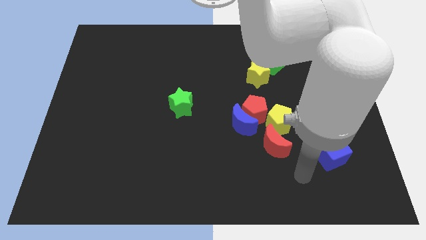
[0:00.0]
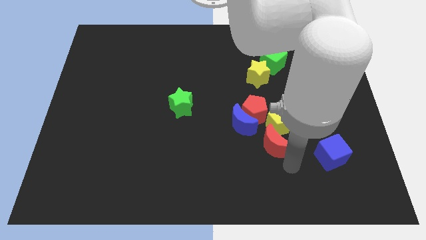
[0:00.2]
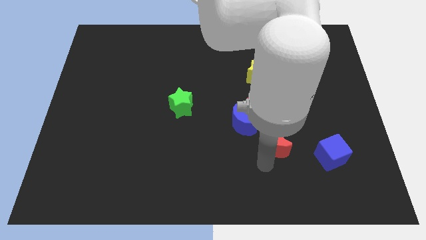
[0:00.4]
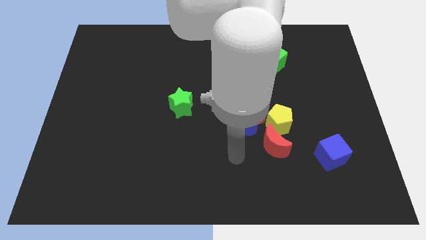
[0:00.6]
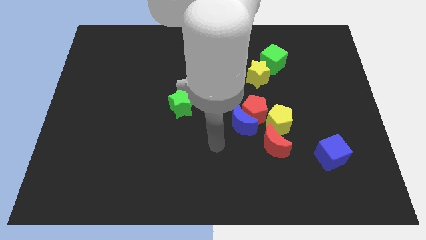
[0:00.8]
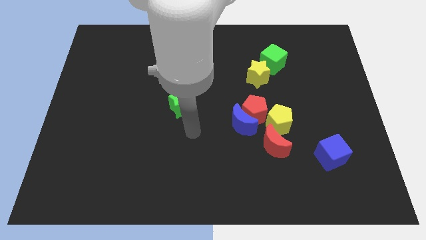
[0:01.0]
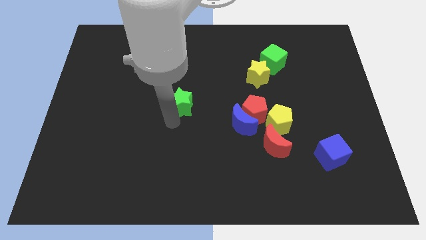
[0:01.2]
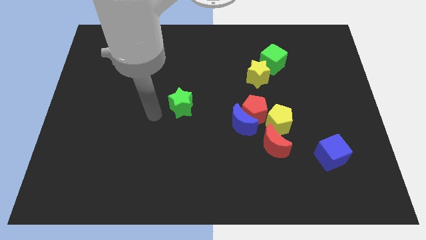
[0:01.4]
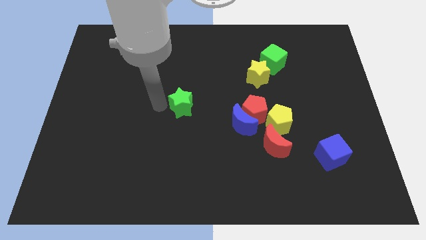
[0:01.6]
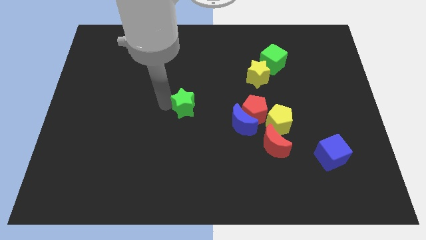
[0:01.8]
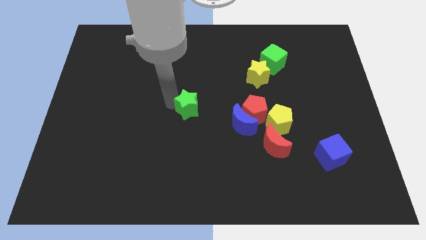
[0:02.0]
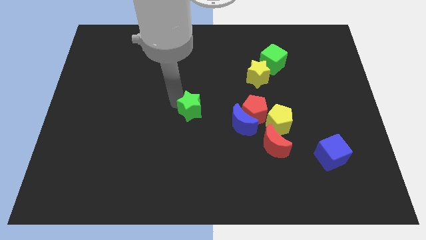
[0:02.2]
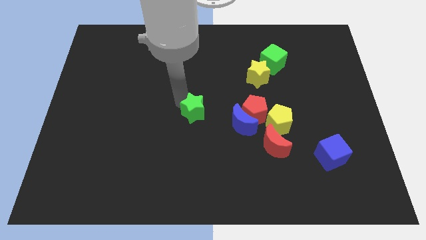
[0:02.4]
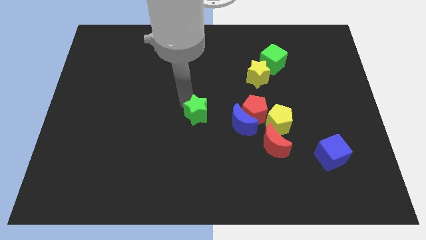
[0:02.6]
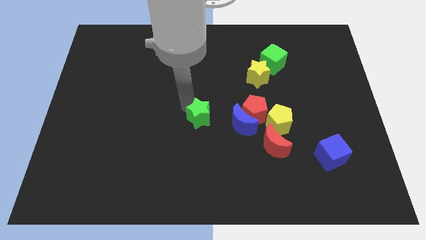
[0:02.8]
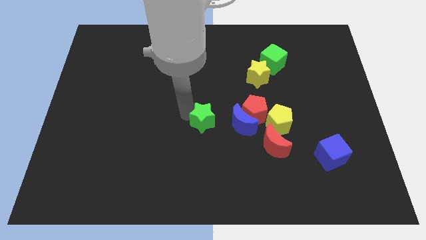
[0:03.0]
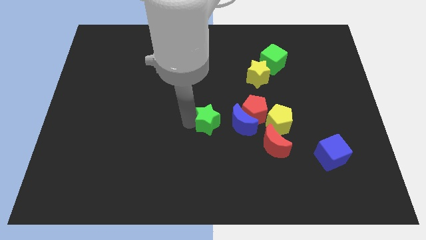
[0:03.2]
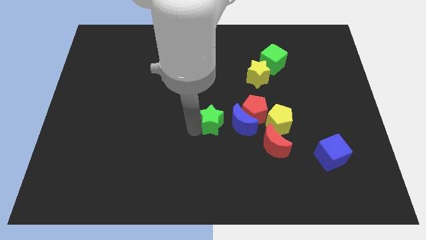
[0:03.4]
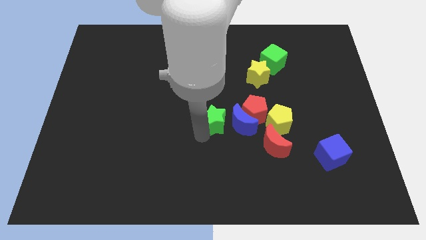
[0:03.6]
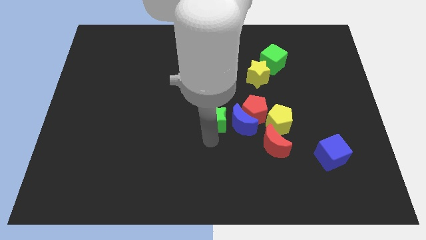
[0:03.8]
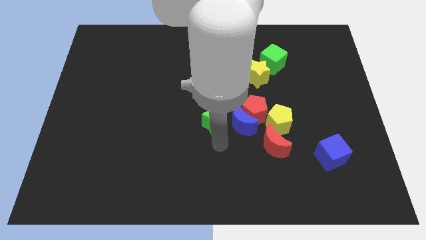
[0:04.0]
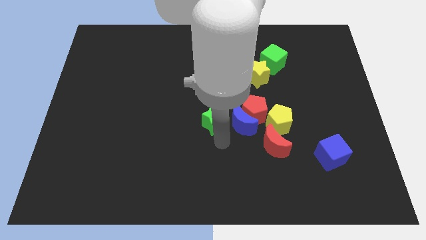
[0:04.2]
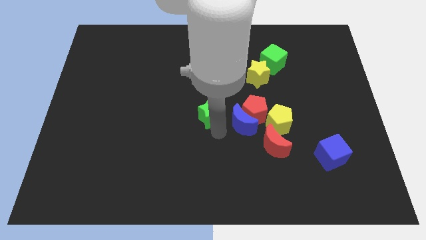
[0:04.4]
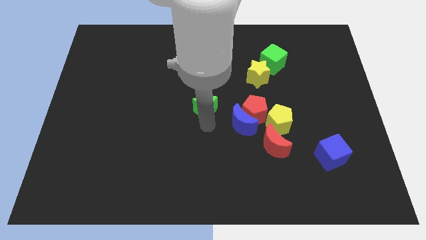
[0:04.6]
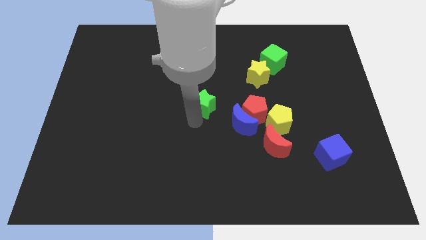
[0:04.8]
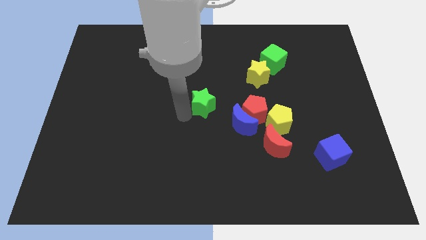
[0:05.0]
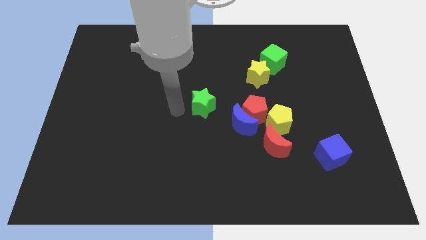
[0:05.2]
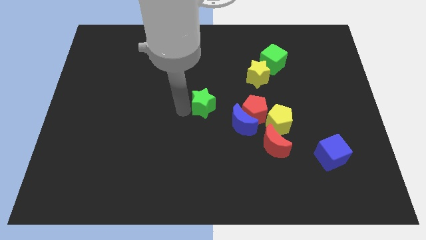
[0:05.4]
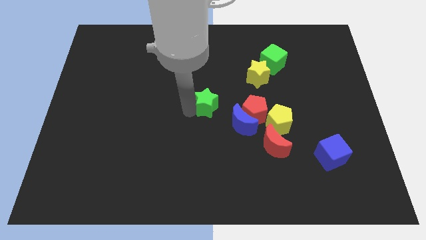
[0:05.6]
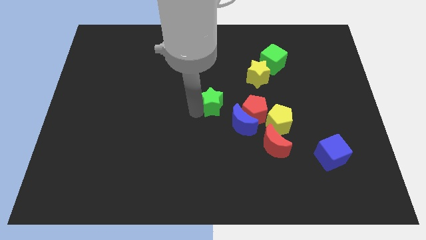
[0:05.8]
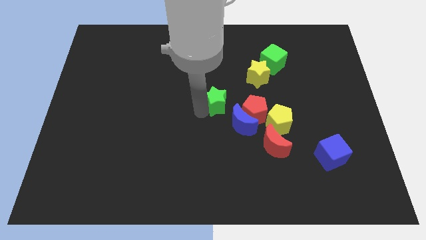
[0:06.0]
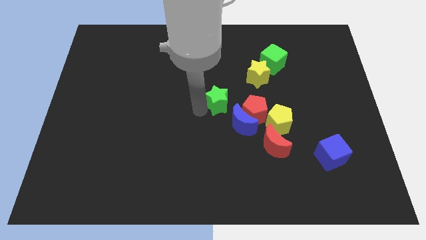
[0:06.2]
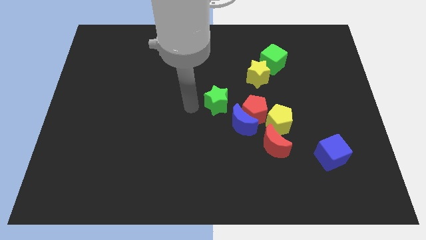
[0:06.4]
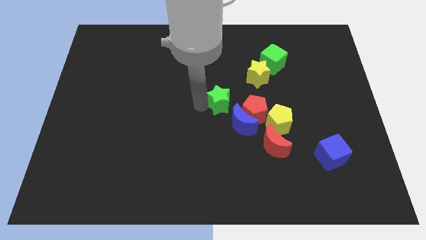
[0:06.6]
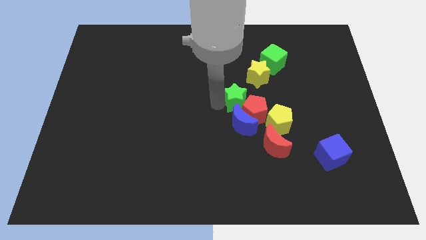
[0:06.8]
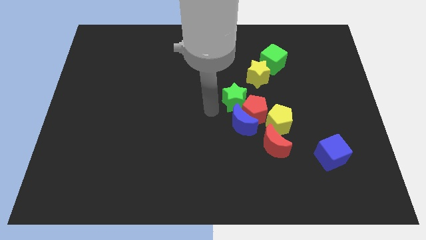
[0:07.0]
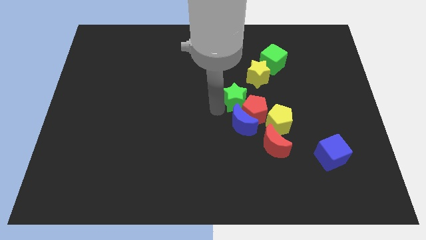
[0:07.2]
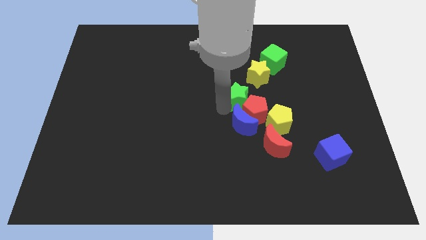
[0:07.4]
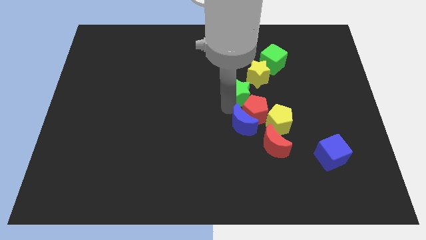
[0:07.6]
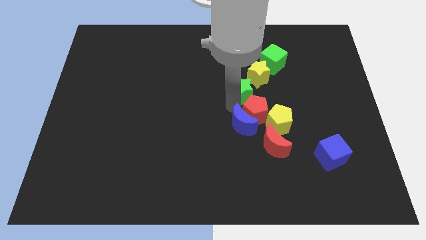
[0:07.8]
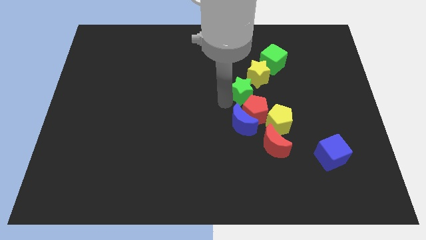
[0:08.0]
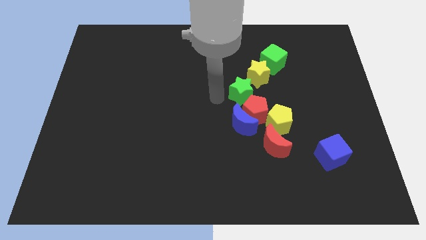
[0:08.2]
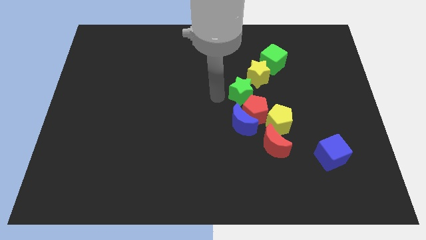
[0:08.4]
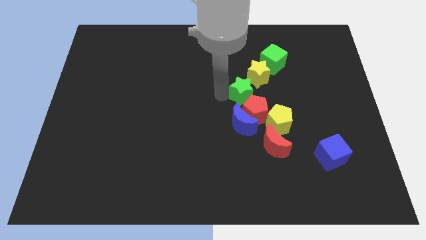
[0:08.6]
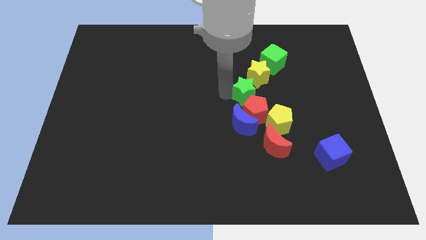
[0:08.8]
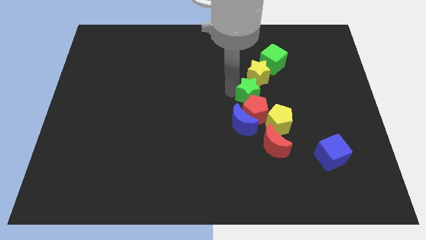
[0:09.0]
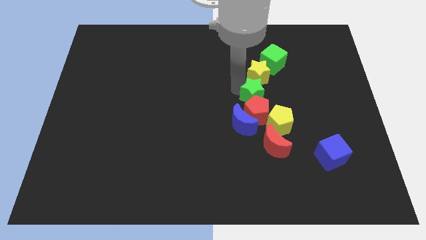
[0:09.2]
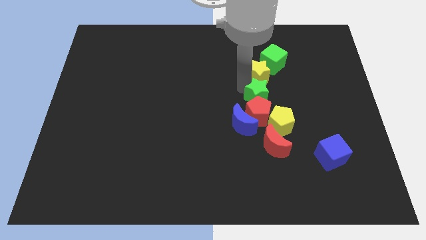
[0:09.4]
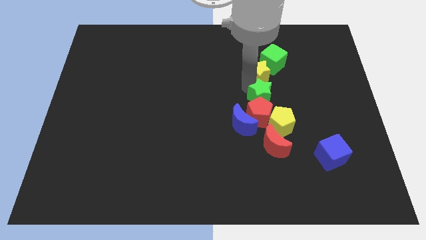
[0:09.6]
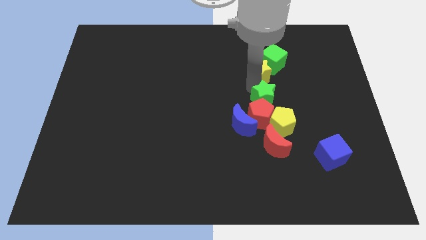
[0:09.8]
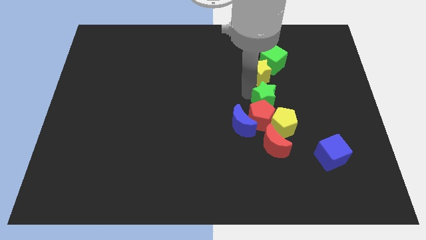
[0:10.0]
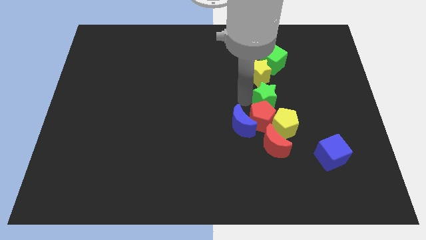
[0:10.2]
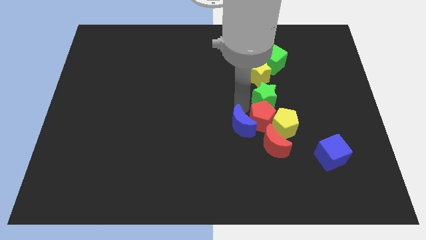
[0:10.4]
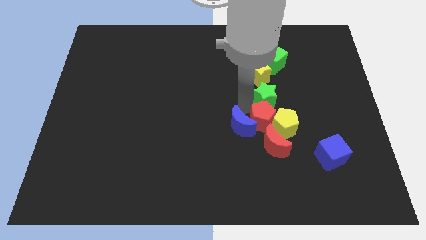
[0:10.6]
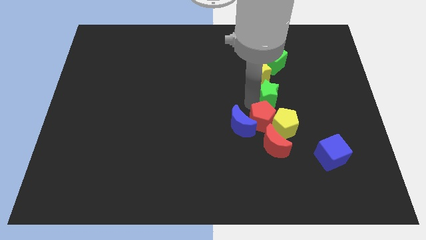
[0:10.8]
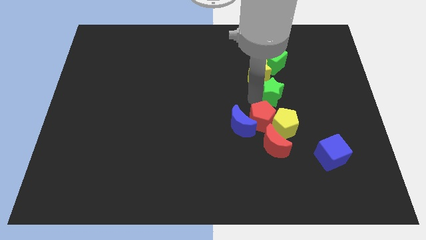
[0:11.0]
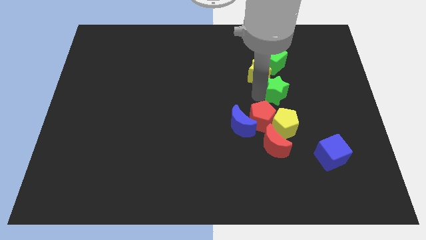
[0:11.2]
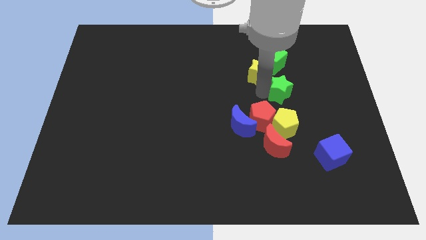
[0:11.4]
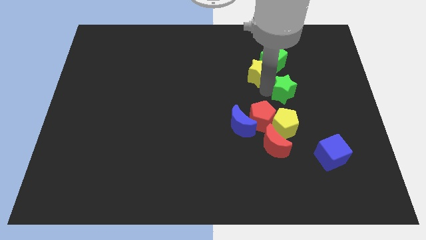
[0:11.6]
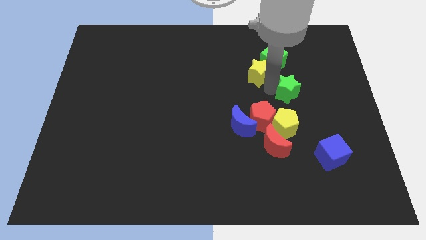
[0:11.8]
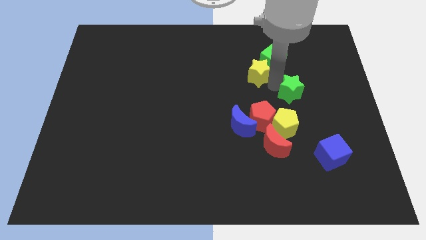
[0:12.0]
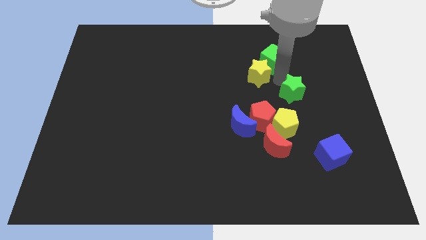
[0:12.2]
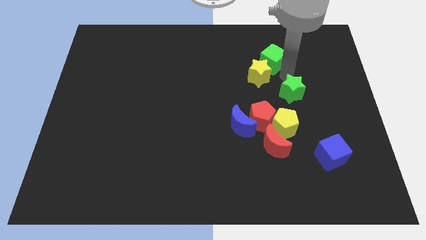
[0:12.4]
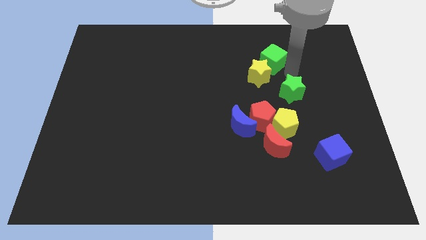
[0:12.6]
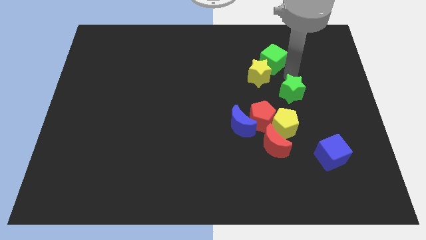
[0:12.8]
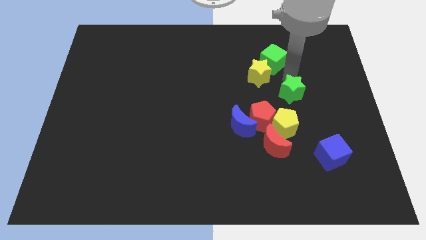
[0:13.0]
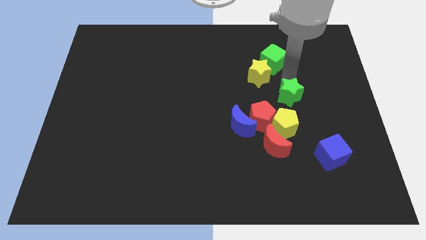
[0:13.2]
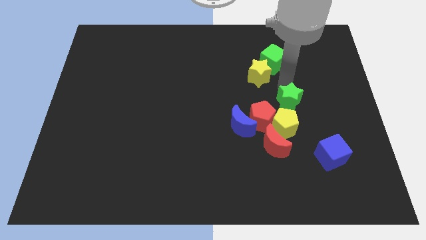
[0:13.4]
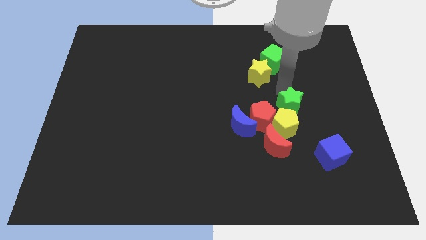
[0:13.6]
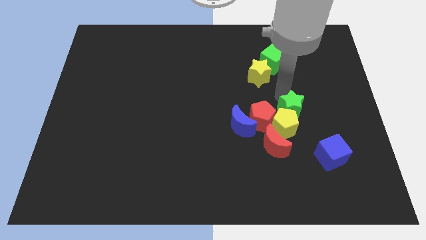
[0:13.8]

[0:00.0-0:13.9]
move the green star to the top right side of the red moon
